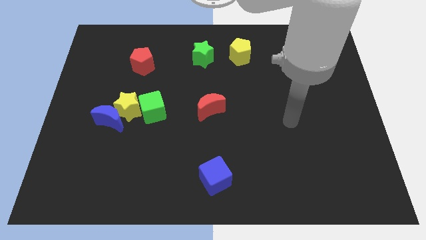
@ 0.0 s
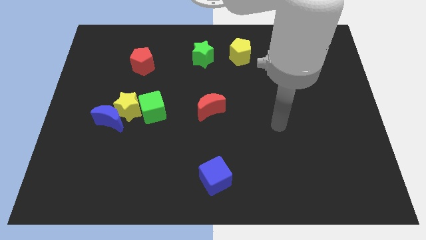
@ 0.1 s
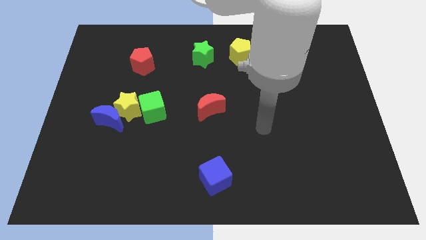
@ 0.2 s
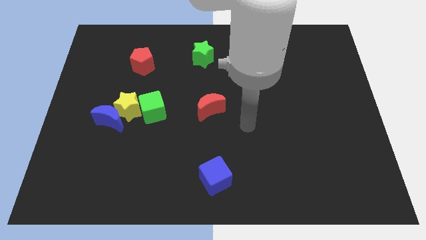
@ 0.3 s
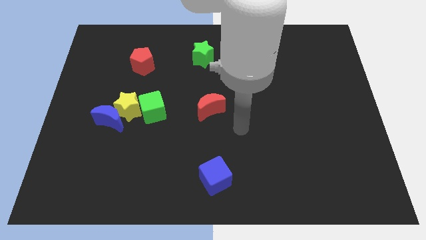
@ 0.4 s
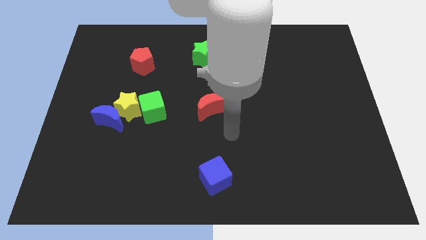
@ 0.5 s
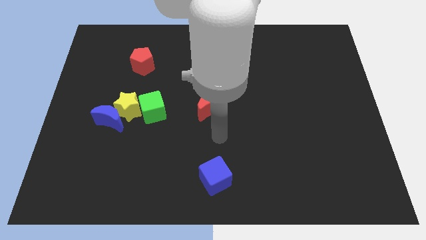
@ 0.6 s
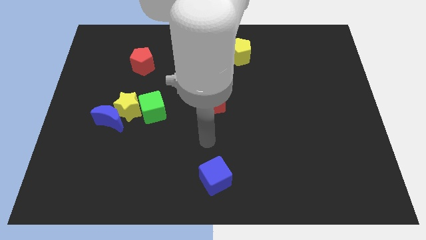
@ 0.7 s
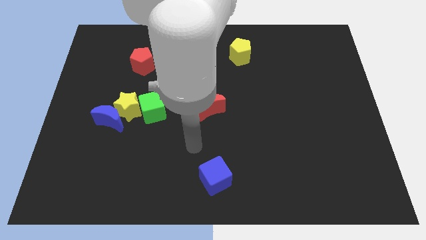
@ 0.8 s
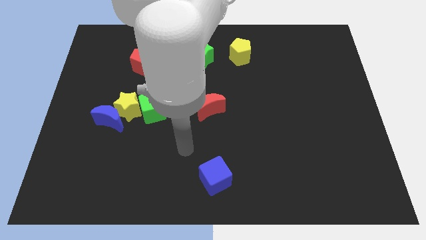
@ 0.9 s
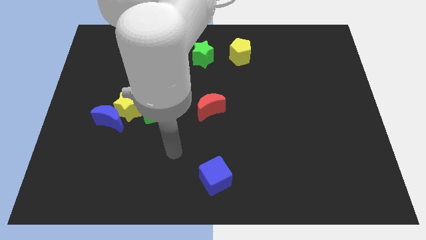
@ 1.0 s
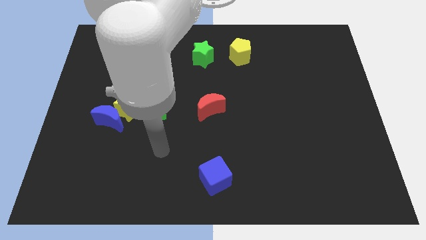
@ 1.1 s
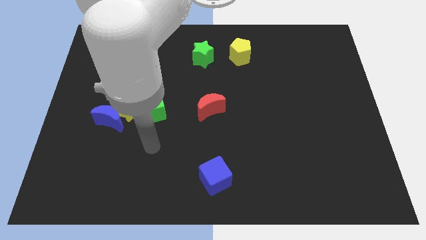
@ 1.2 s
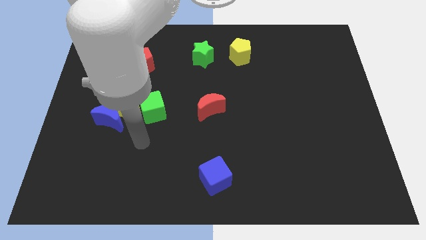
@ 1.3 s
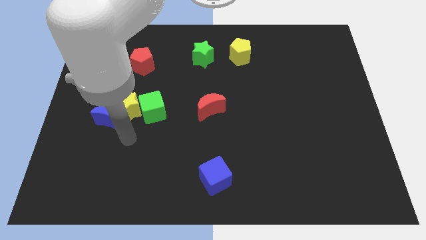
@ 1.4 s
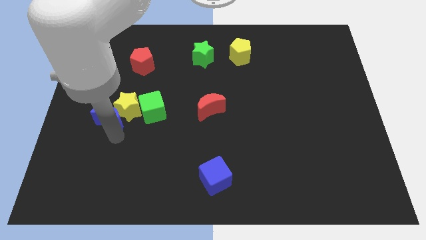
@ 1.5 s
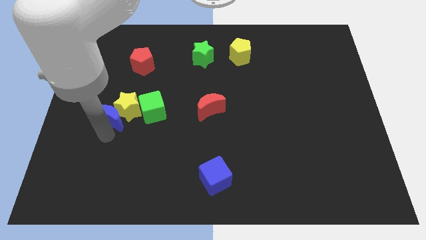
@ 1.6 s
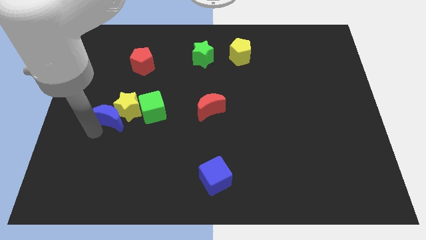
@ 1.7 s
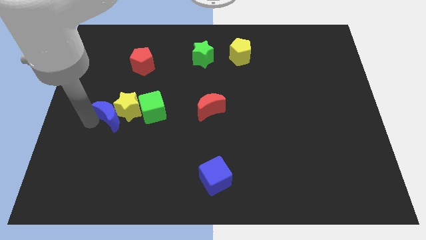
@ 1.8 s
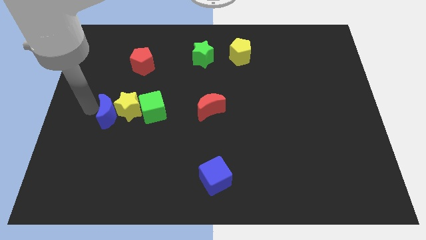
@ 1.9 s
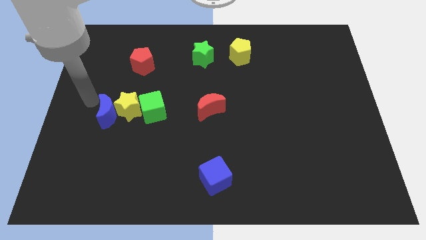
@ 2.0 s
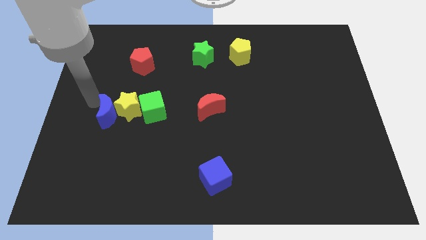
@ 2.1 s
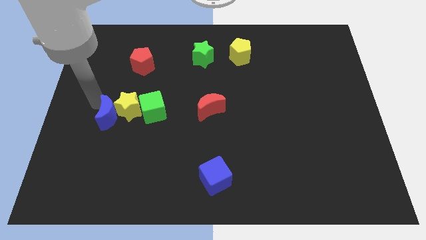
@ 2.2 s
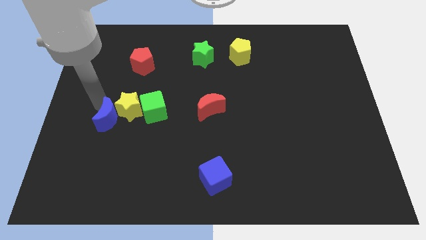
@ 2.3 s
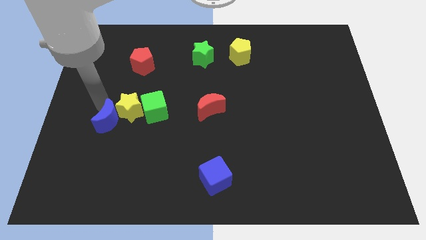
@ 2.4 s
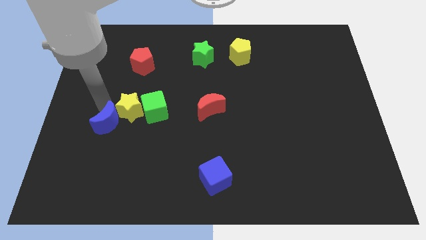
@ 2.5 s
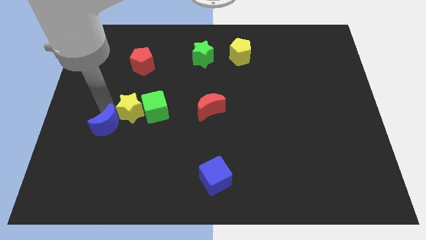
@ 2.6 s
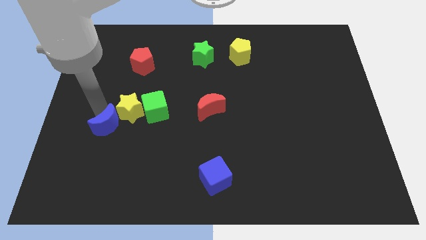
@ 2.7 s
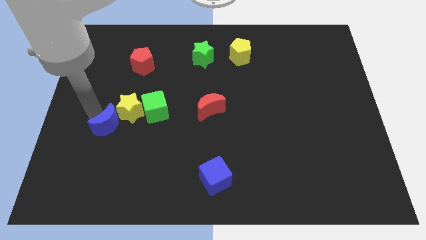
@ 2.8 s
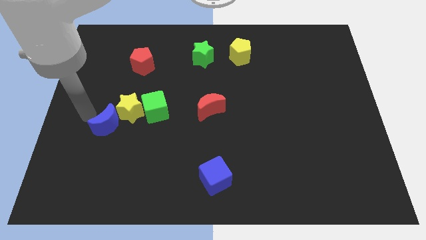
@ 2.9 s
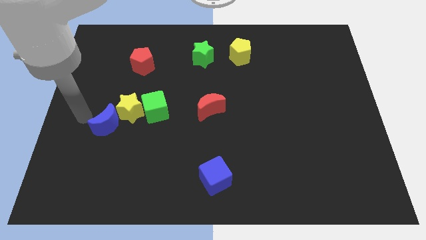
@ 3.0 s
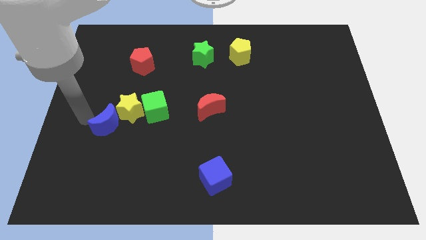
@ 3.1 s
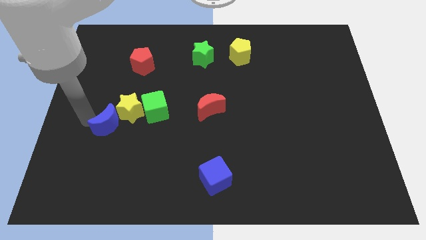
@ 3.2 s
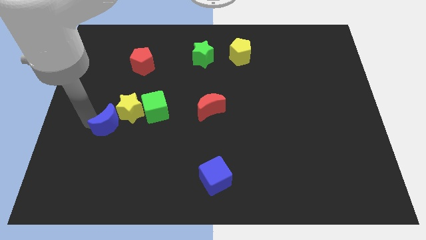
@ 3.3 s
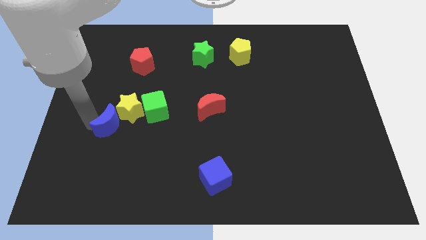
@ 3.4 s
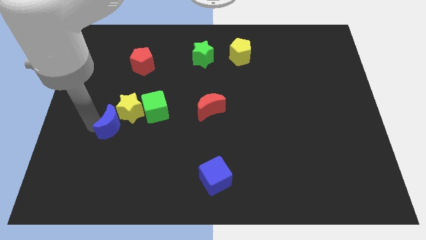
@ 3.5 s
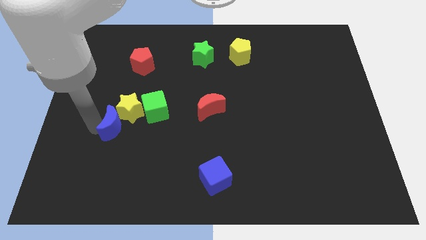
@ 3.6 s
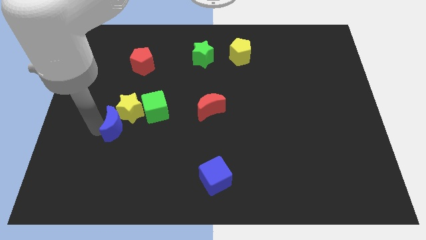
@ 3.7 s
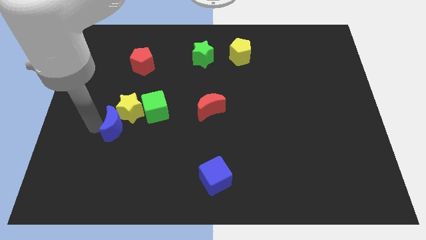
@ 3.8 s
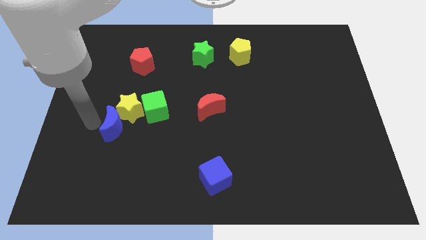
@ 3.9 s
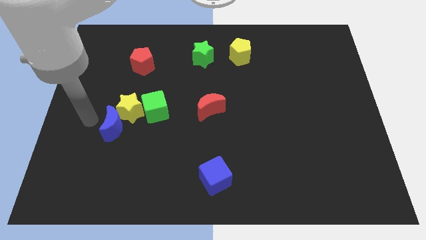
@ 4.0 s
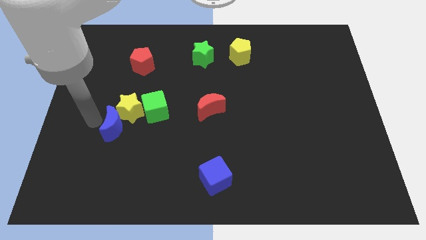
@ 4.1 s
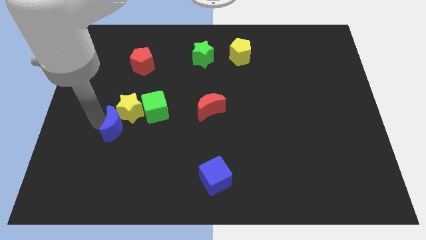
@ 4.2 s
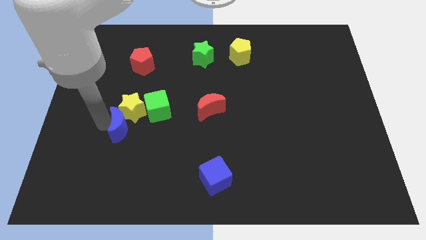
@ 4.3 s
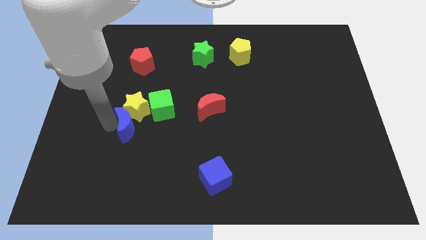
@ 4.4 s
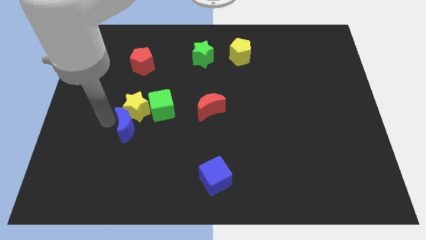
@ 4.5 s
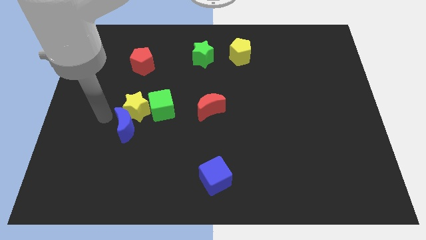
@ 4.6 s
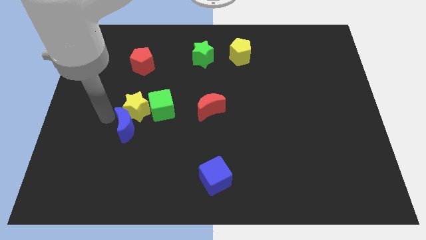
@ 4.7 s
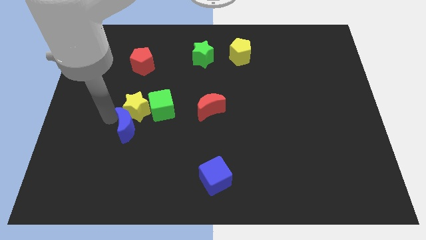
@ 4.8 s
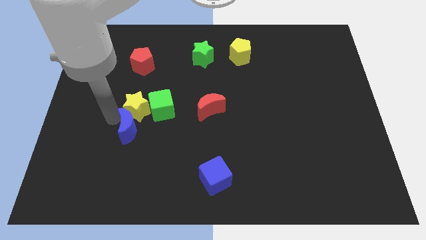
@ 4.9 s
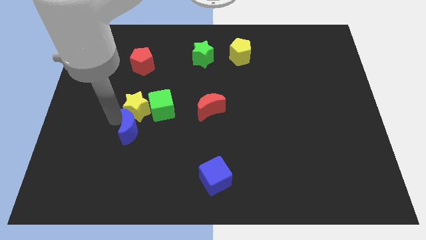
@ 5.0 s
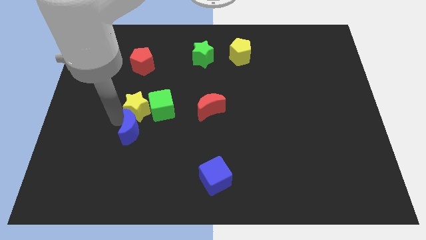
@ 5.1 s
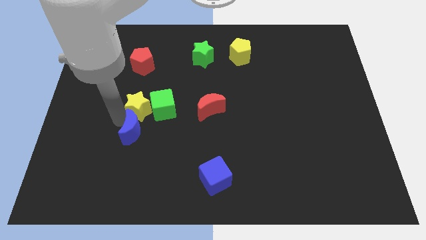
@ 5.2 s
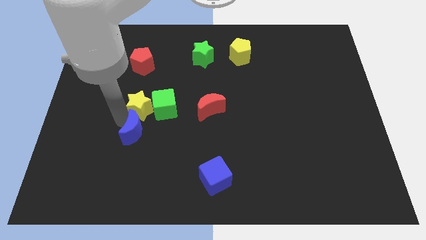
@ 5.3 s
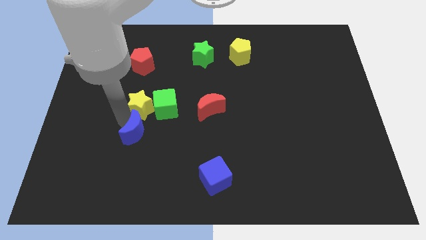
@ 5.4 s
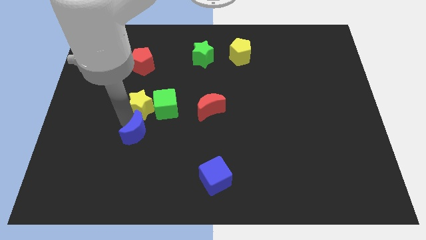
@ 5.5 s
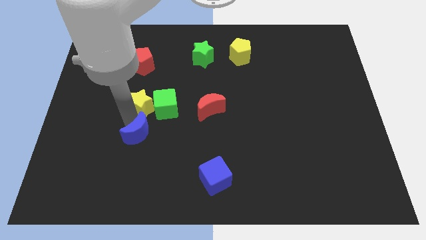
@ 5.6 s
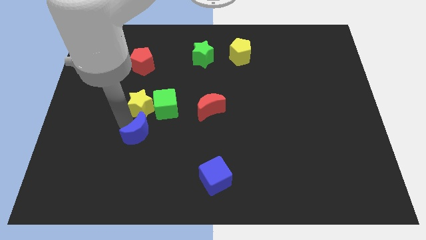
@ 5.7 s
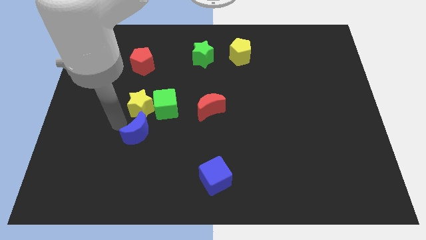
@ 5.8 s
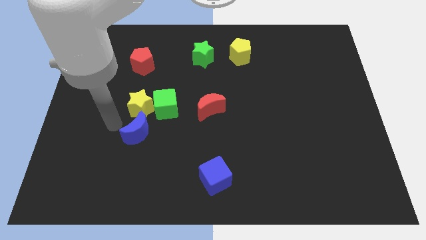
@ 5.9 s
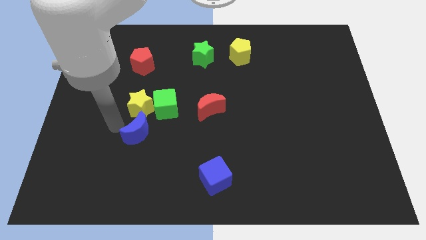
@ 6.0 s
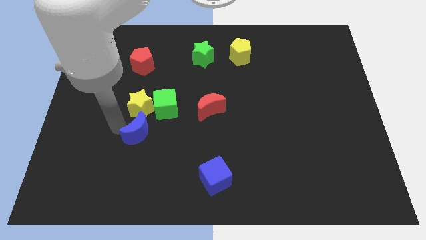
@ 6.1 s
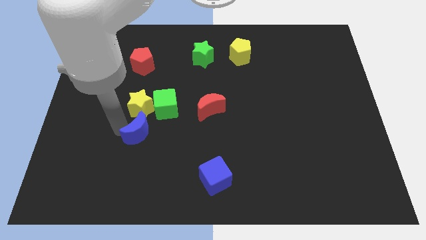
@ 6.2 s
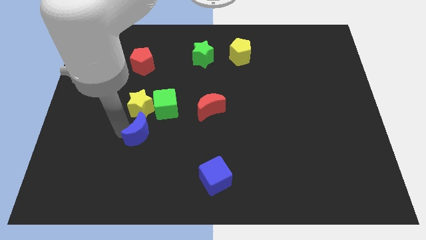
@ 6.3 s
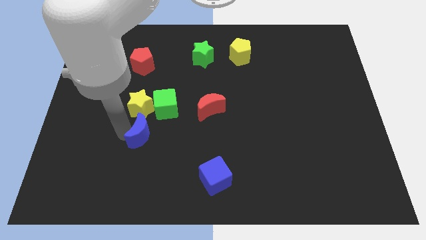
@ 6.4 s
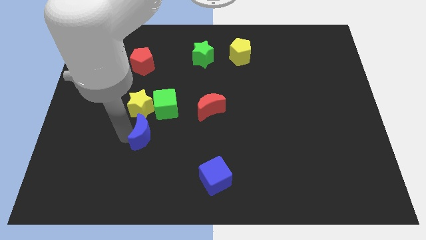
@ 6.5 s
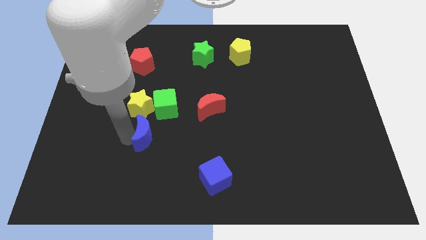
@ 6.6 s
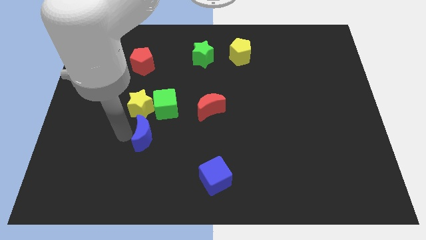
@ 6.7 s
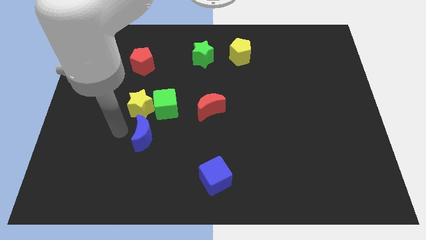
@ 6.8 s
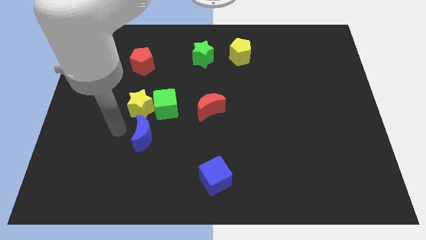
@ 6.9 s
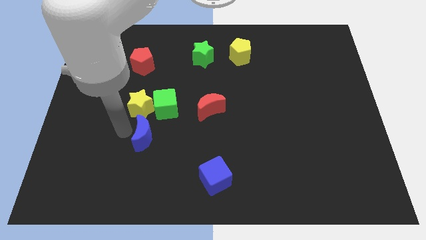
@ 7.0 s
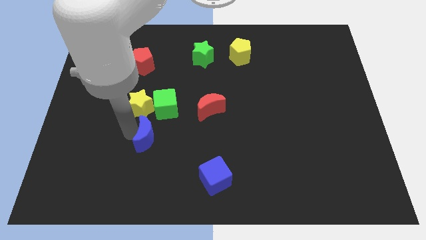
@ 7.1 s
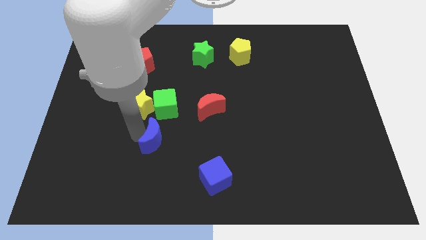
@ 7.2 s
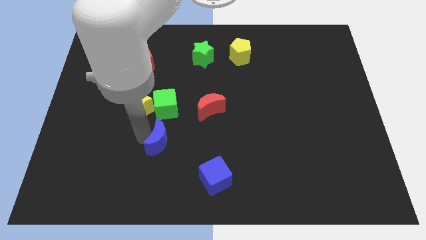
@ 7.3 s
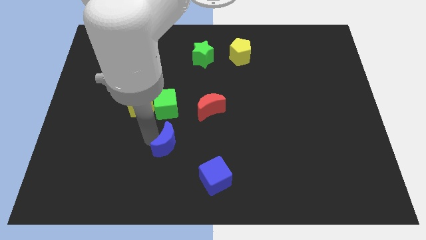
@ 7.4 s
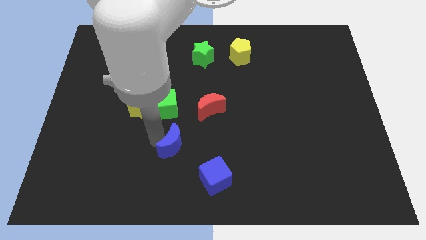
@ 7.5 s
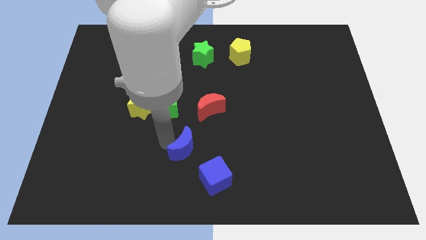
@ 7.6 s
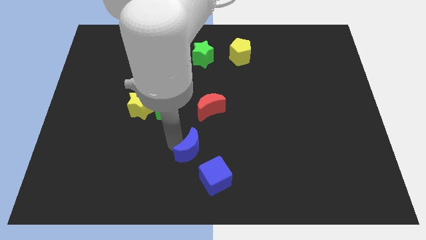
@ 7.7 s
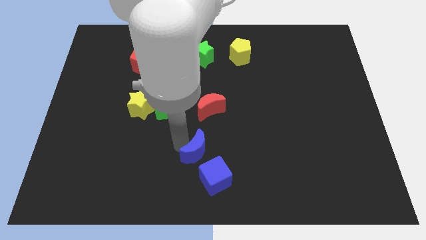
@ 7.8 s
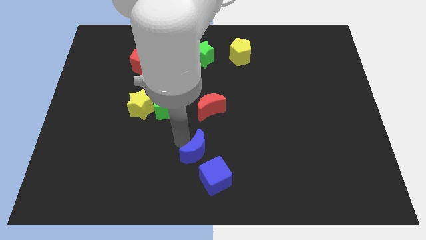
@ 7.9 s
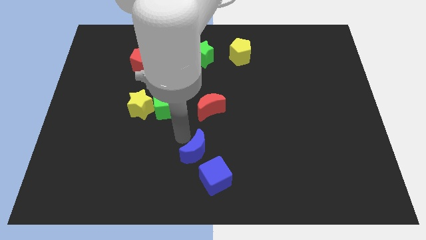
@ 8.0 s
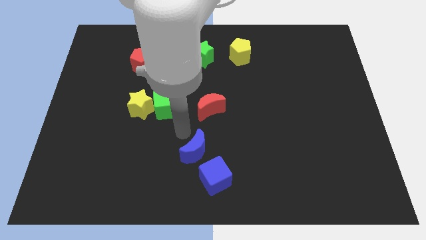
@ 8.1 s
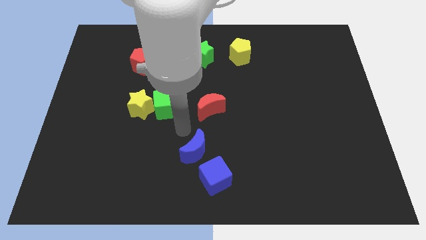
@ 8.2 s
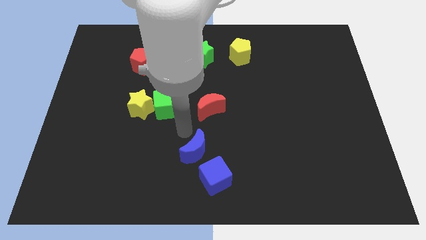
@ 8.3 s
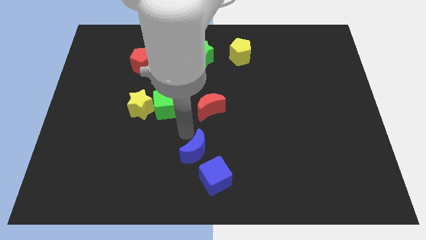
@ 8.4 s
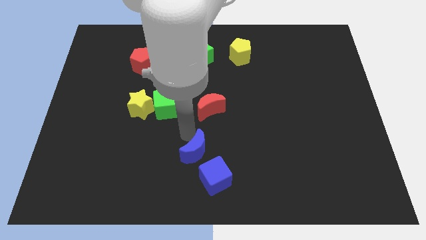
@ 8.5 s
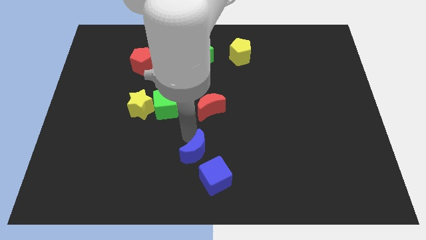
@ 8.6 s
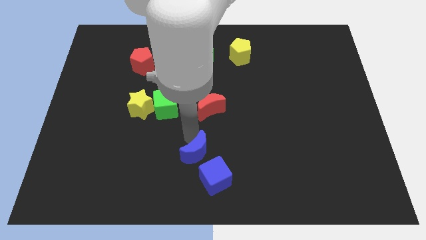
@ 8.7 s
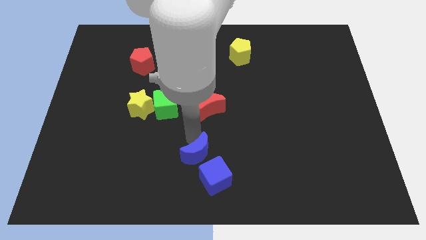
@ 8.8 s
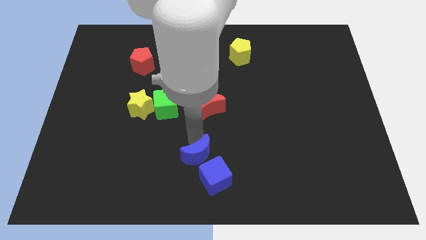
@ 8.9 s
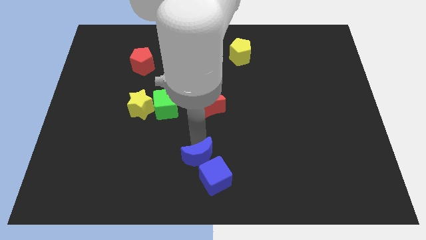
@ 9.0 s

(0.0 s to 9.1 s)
slide the blue moon close to the blue cube
